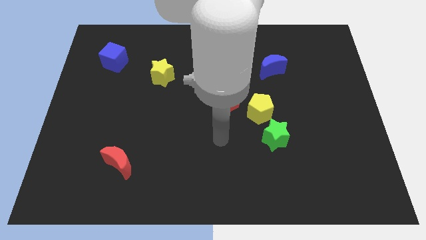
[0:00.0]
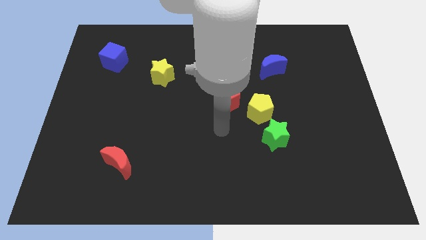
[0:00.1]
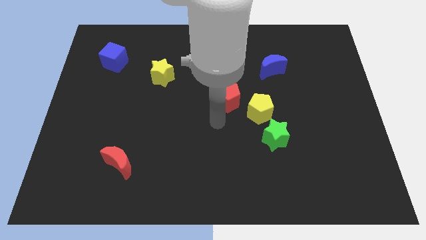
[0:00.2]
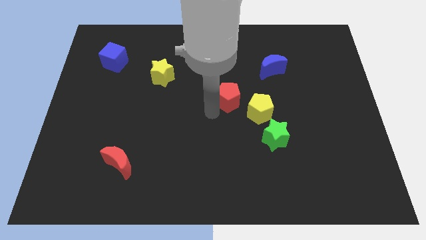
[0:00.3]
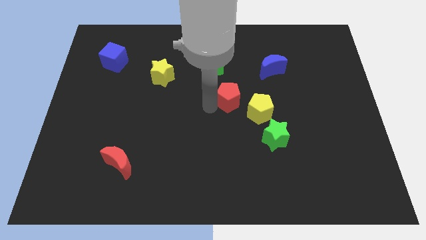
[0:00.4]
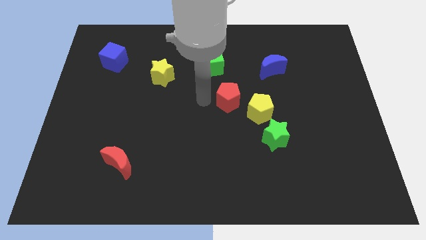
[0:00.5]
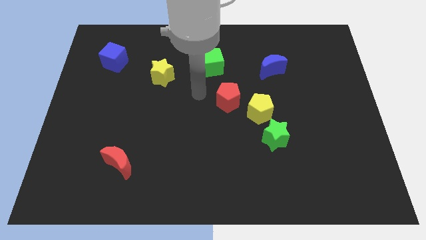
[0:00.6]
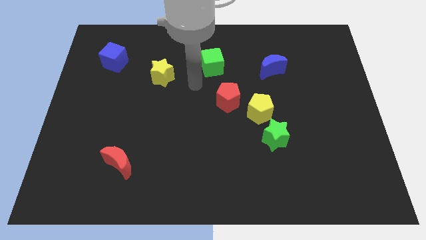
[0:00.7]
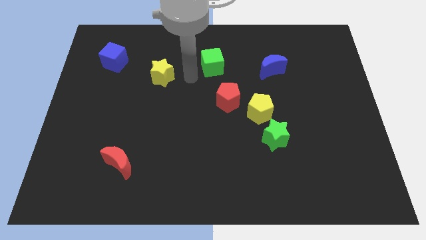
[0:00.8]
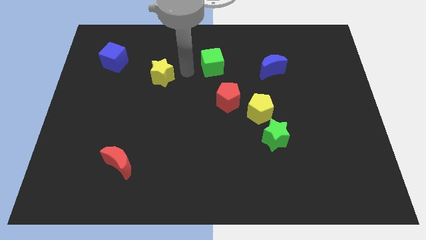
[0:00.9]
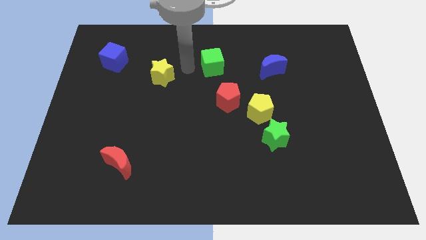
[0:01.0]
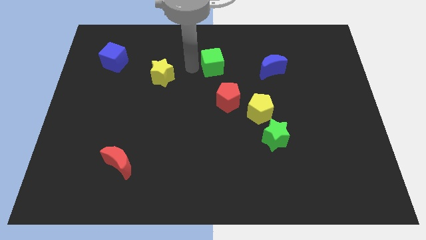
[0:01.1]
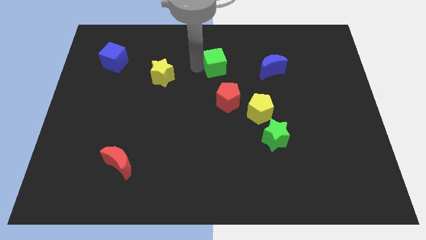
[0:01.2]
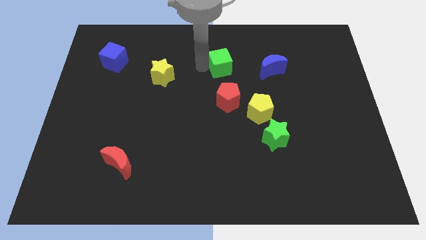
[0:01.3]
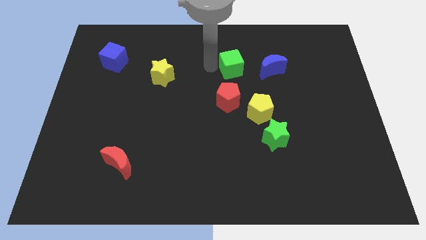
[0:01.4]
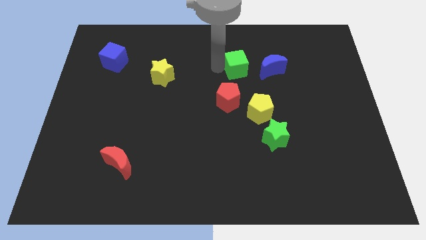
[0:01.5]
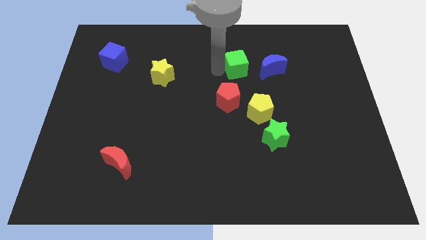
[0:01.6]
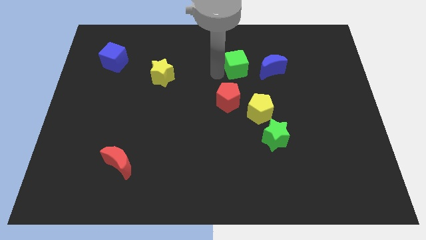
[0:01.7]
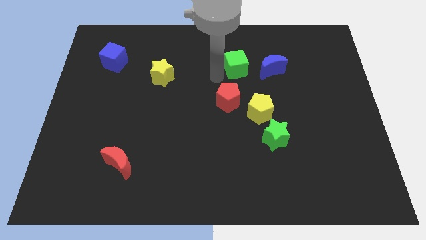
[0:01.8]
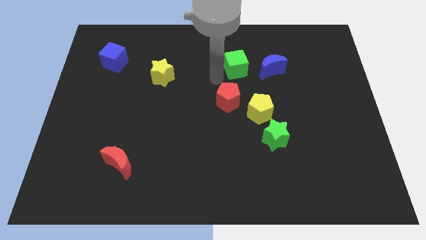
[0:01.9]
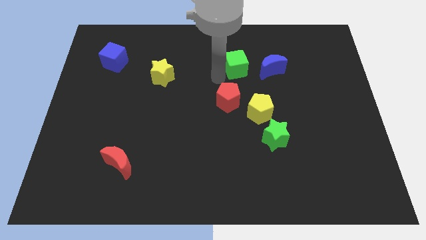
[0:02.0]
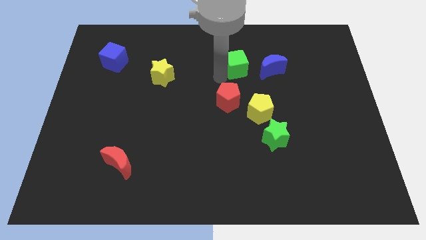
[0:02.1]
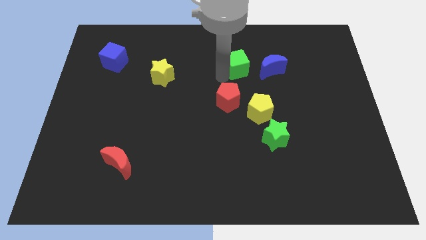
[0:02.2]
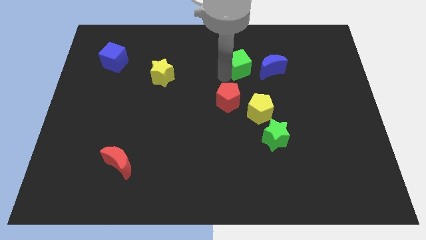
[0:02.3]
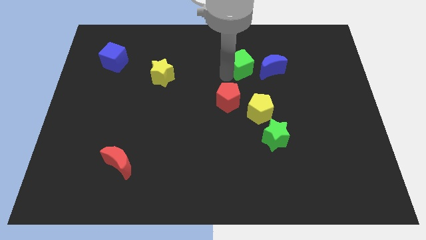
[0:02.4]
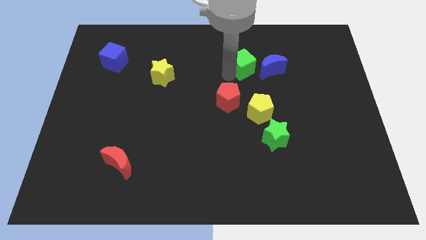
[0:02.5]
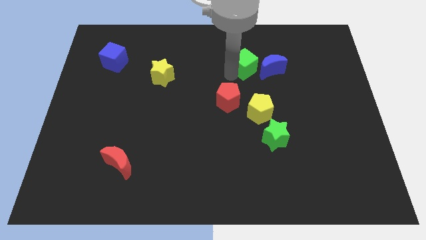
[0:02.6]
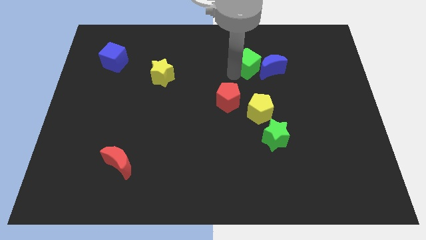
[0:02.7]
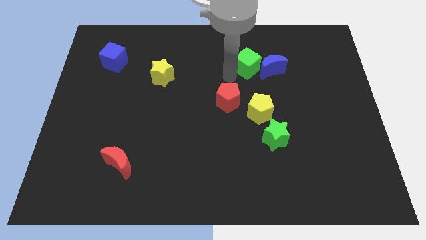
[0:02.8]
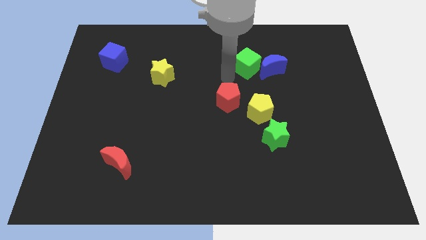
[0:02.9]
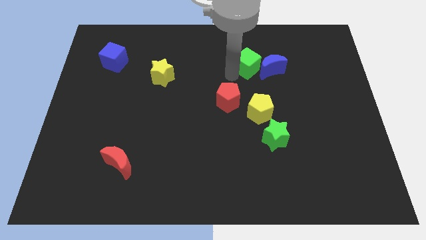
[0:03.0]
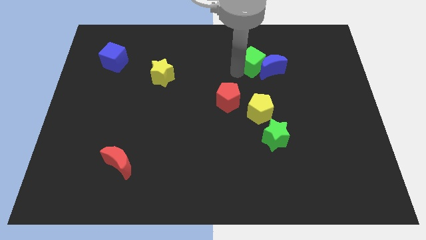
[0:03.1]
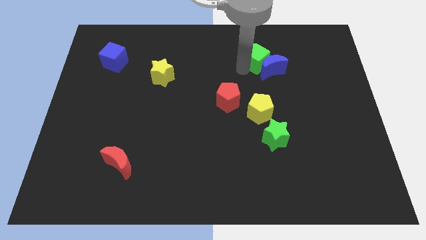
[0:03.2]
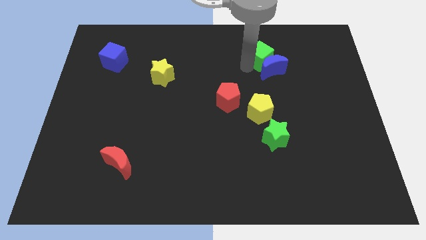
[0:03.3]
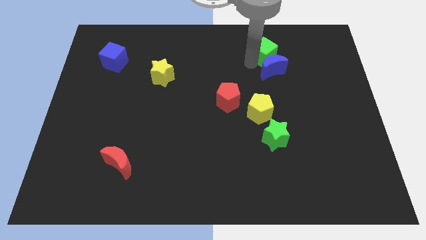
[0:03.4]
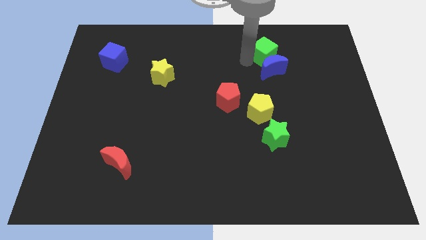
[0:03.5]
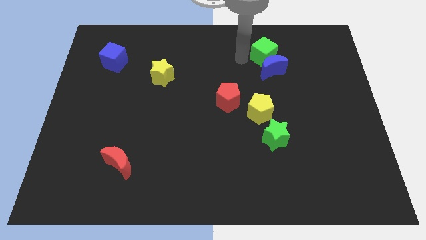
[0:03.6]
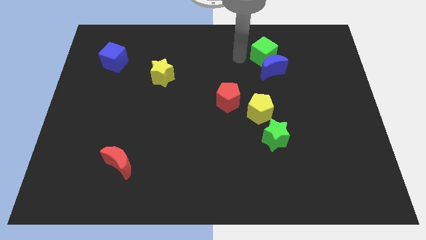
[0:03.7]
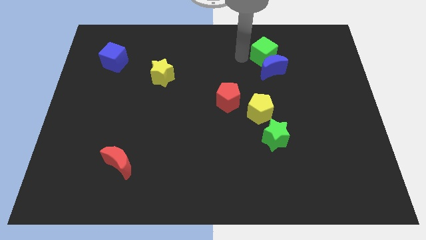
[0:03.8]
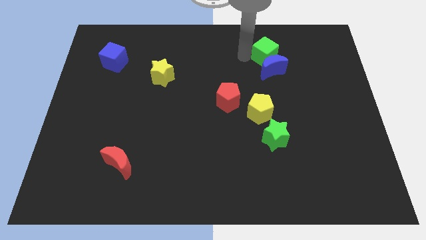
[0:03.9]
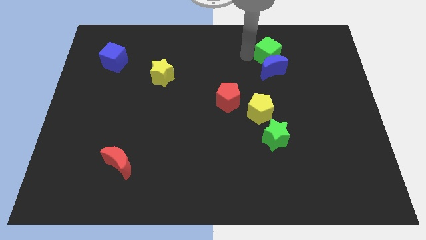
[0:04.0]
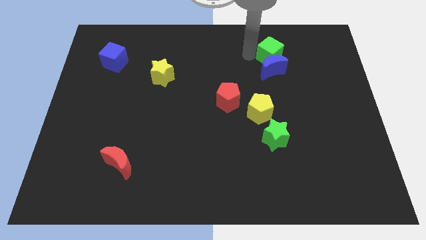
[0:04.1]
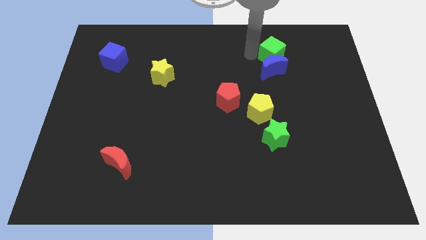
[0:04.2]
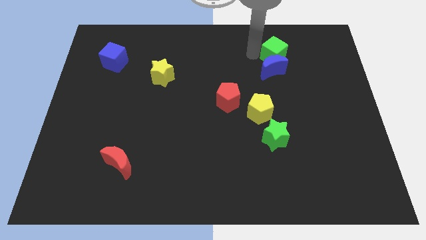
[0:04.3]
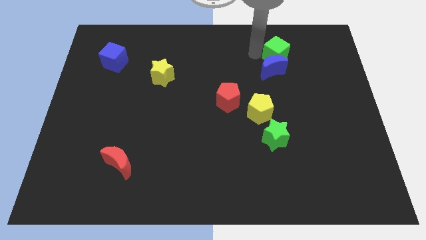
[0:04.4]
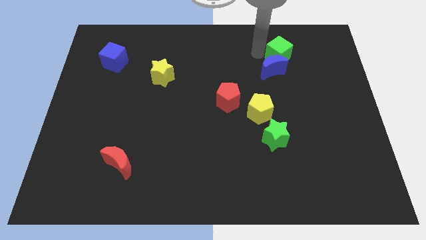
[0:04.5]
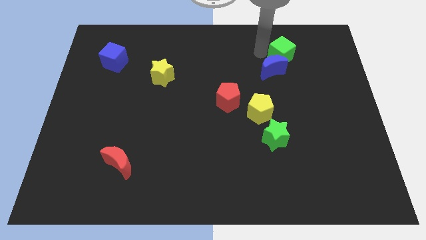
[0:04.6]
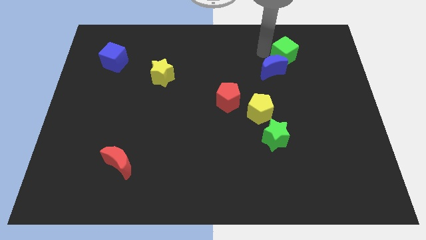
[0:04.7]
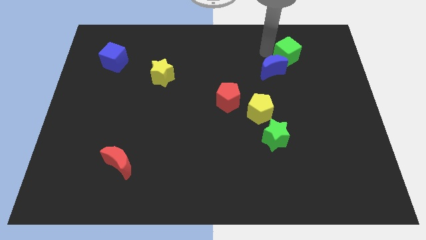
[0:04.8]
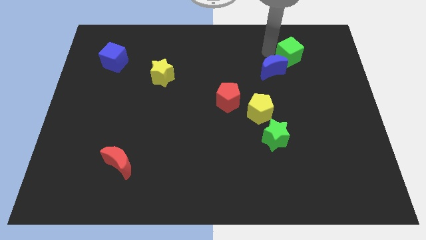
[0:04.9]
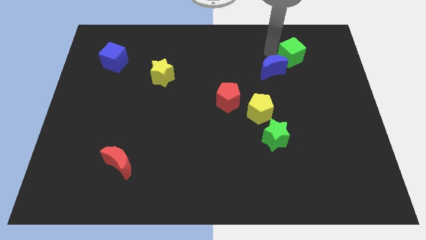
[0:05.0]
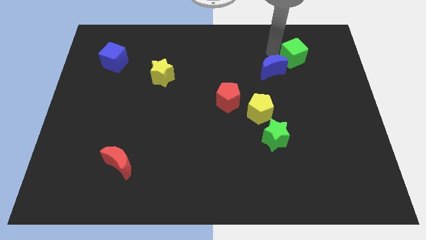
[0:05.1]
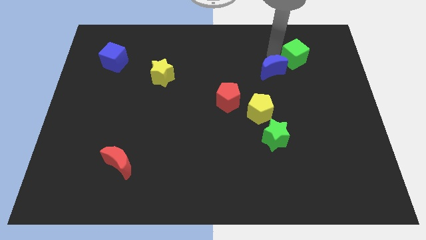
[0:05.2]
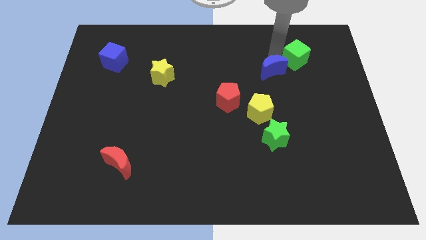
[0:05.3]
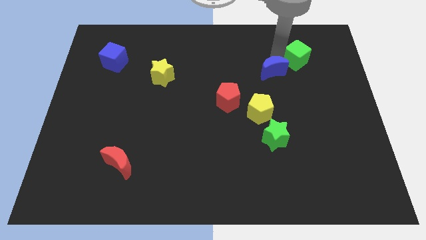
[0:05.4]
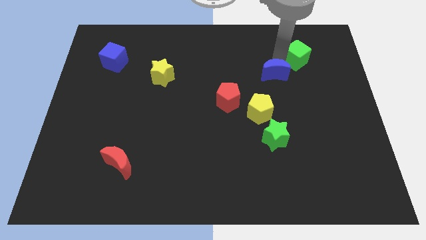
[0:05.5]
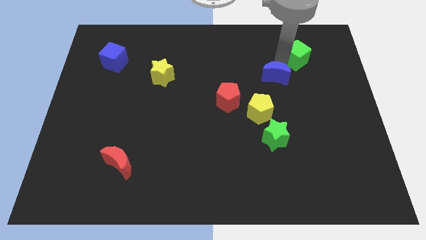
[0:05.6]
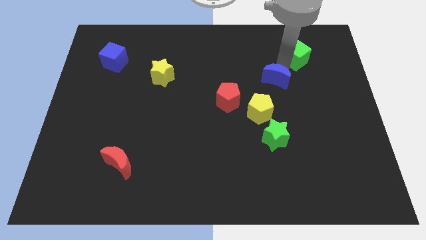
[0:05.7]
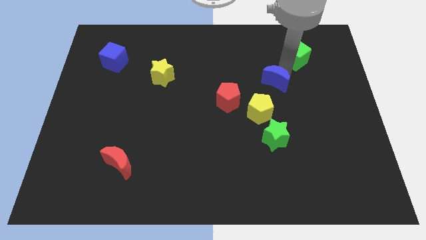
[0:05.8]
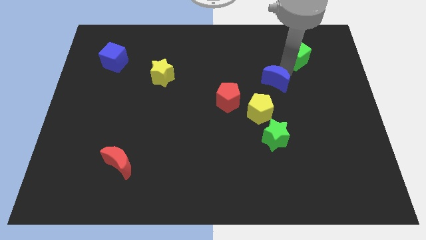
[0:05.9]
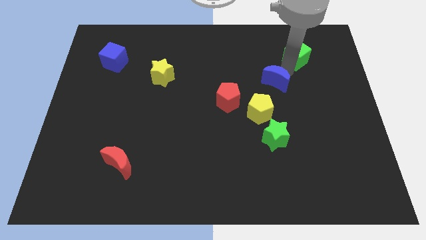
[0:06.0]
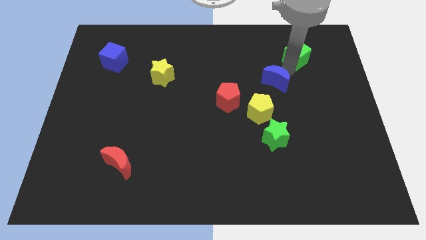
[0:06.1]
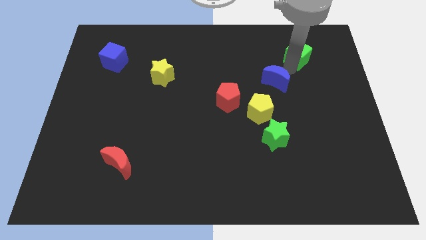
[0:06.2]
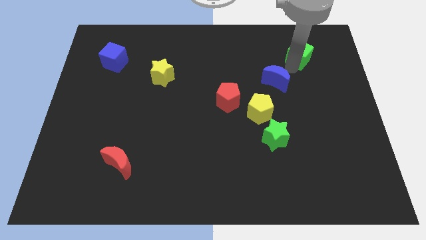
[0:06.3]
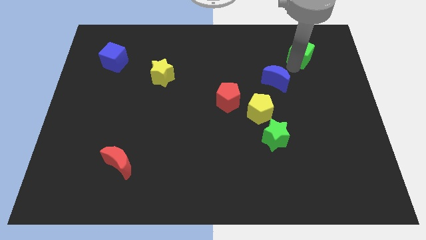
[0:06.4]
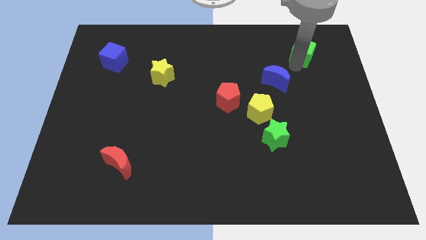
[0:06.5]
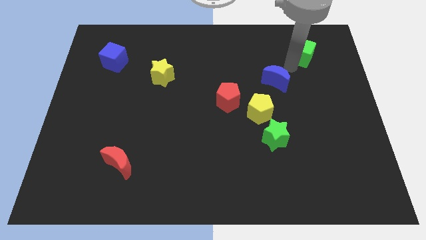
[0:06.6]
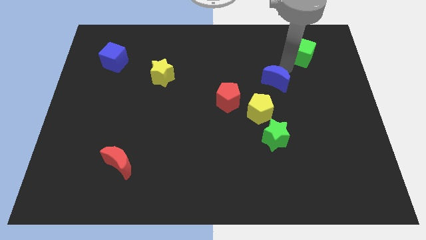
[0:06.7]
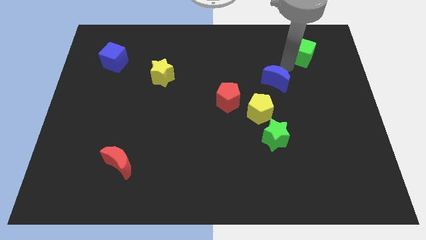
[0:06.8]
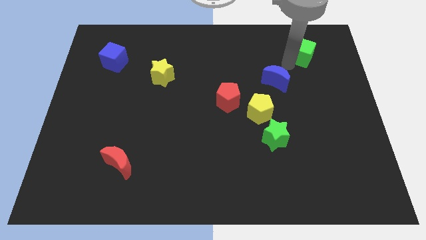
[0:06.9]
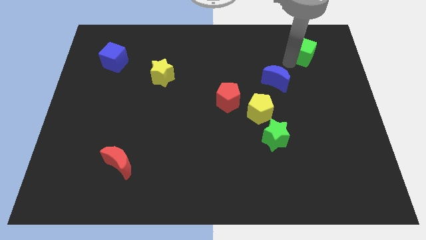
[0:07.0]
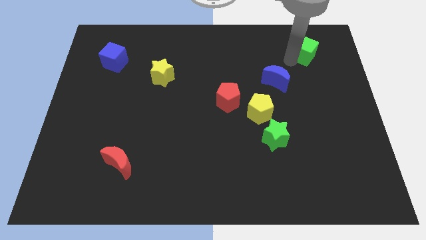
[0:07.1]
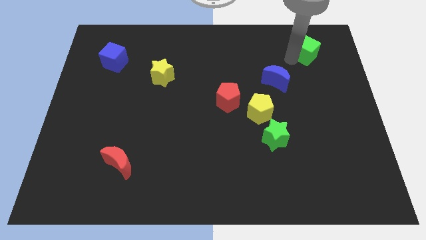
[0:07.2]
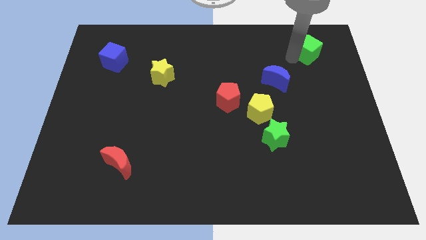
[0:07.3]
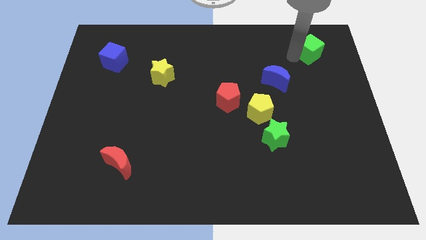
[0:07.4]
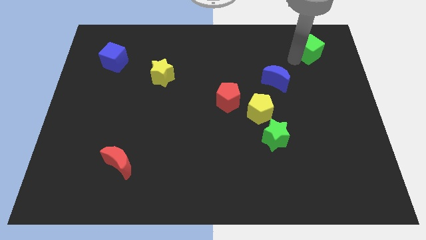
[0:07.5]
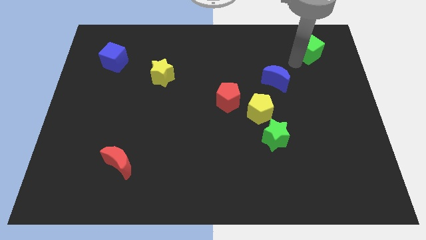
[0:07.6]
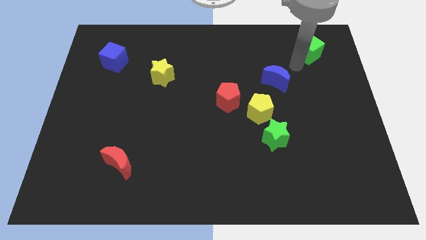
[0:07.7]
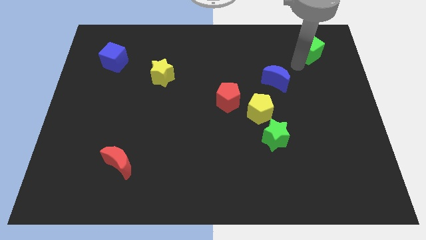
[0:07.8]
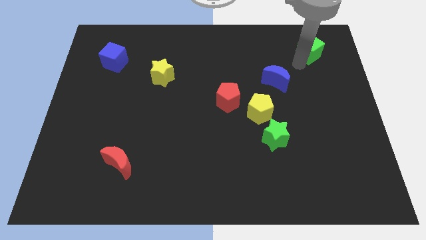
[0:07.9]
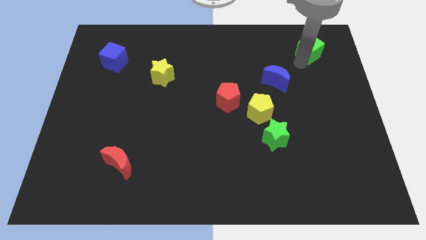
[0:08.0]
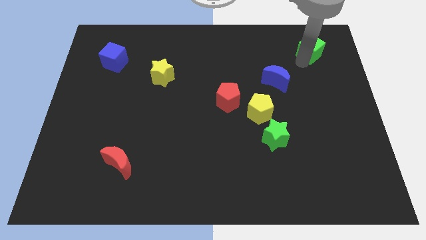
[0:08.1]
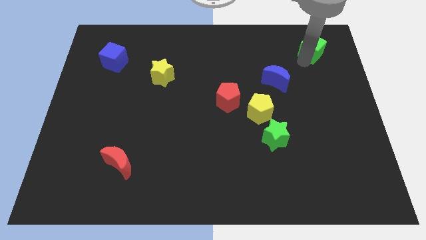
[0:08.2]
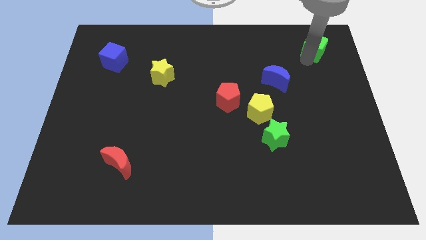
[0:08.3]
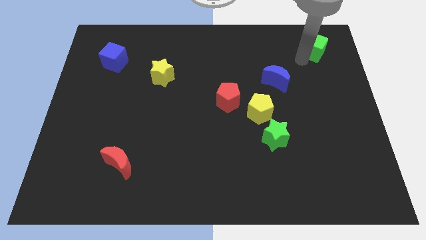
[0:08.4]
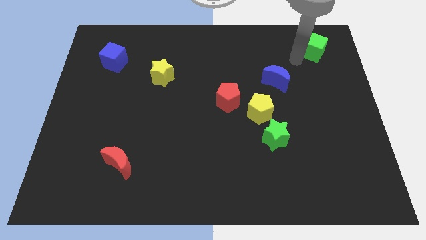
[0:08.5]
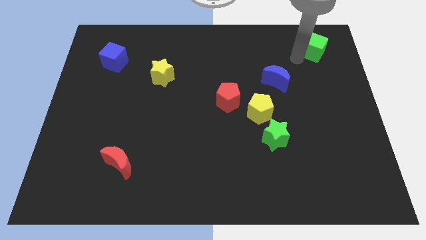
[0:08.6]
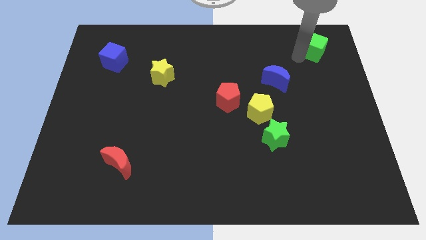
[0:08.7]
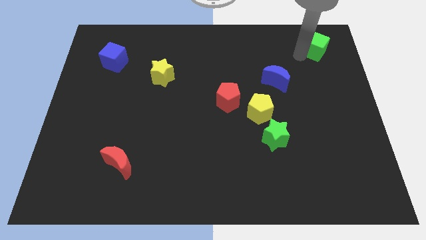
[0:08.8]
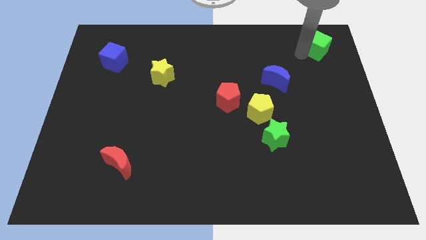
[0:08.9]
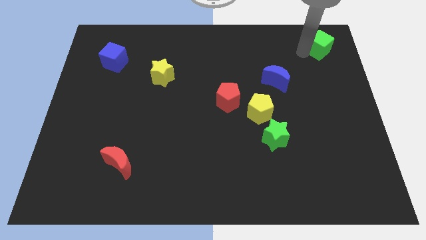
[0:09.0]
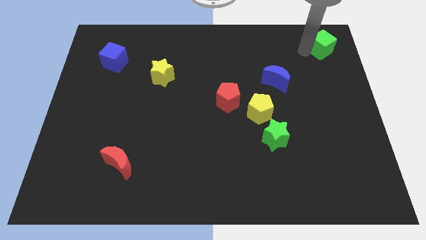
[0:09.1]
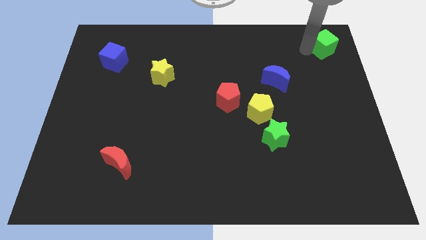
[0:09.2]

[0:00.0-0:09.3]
move the green cube to the upper right corner
